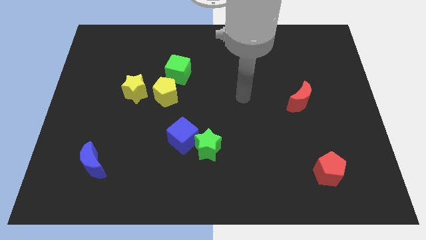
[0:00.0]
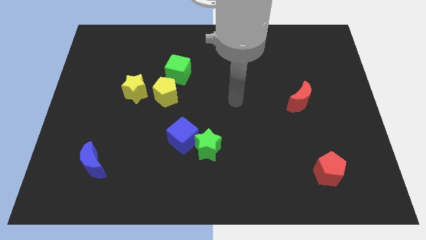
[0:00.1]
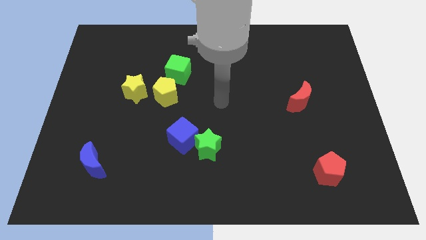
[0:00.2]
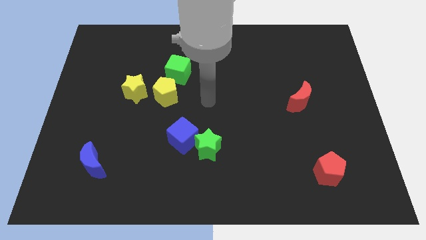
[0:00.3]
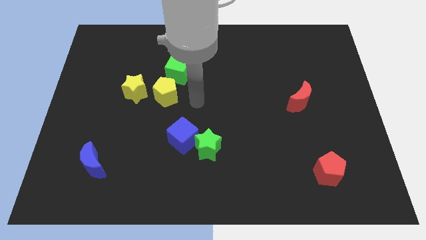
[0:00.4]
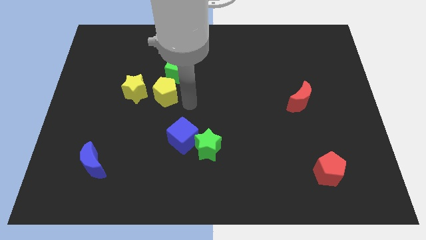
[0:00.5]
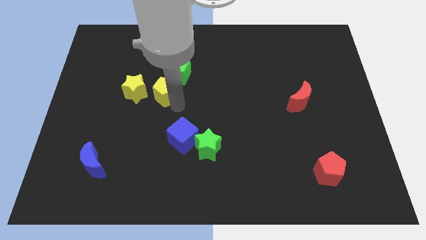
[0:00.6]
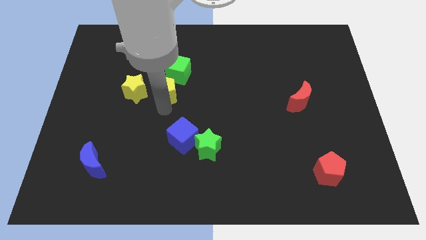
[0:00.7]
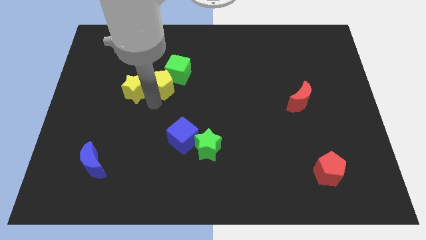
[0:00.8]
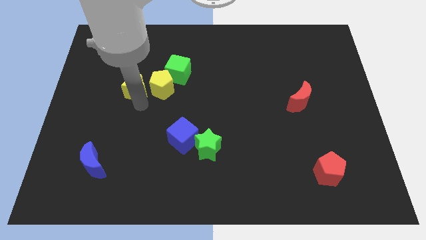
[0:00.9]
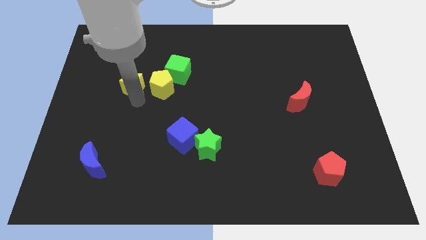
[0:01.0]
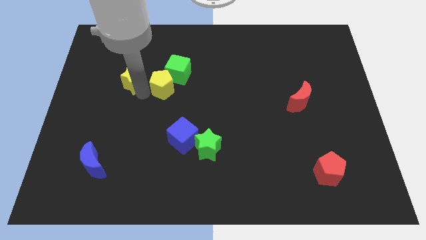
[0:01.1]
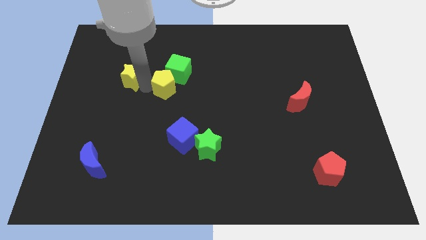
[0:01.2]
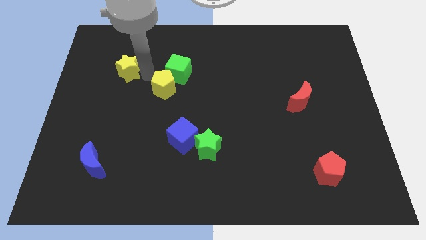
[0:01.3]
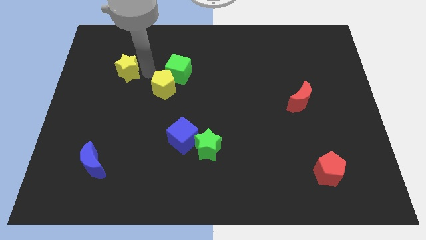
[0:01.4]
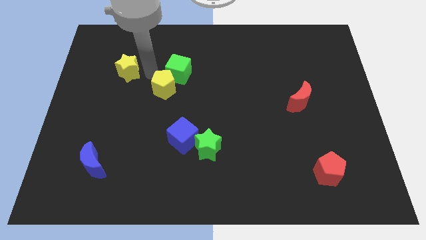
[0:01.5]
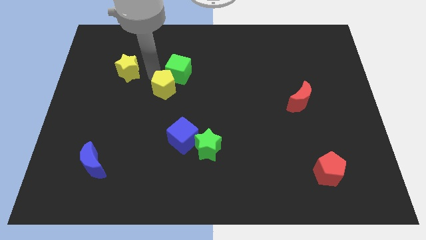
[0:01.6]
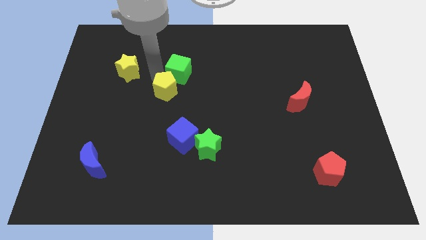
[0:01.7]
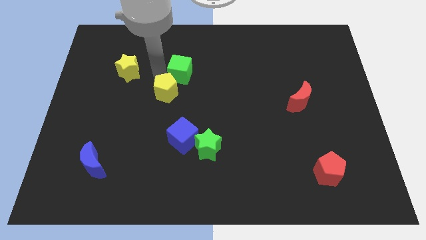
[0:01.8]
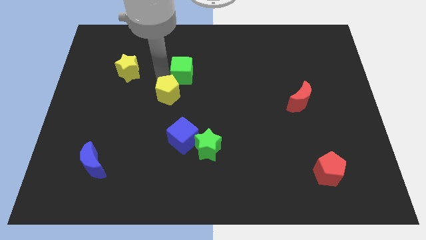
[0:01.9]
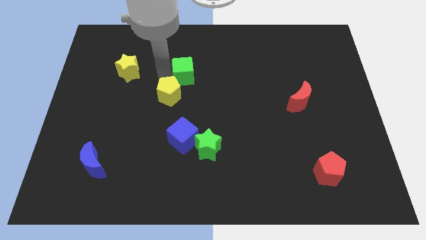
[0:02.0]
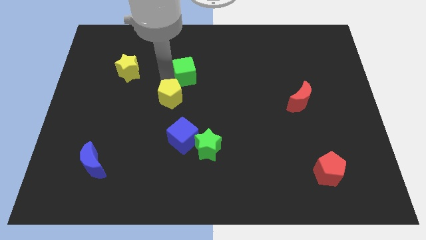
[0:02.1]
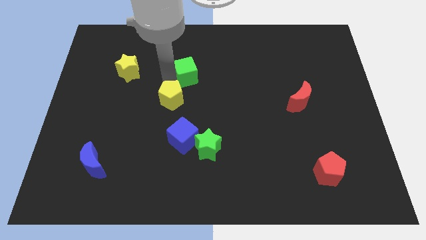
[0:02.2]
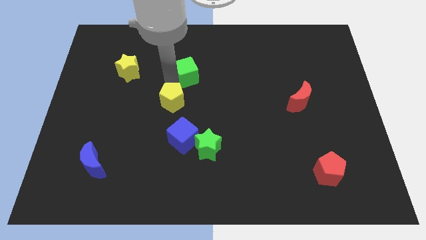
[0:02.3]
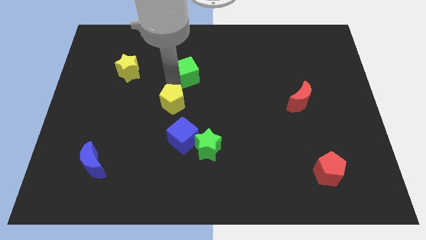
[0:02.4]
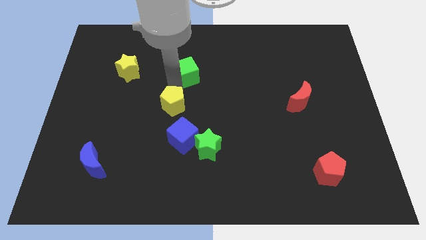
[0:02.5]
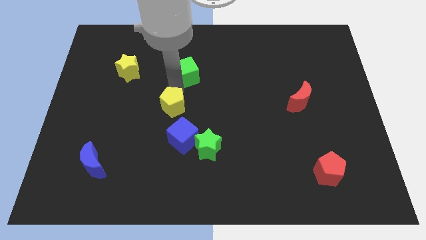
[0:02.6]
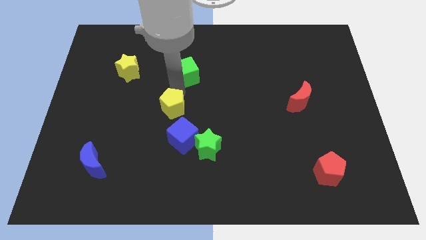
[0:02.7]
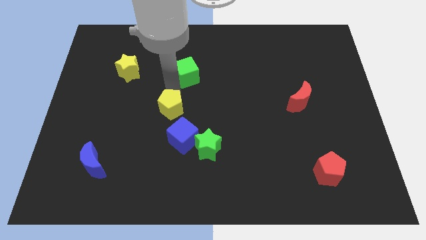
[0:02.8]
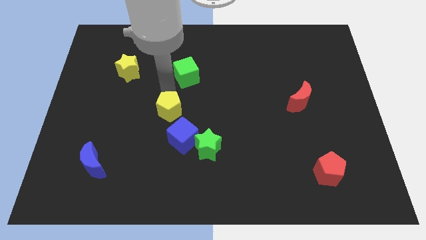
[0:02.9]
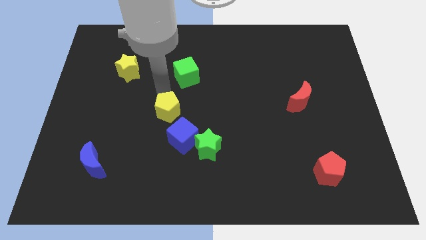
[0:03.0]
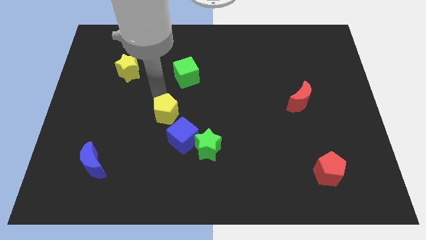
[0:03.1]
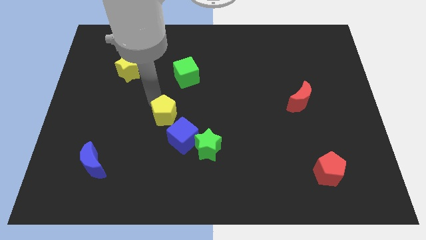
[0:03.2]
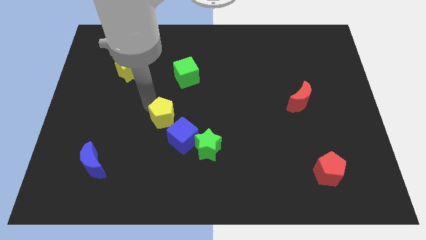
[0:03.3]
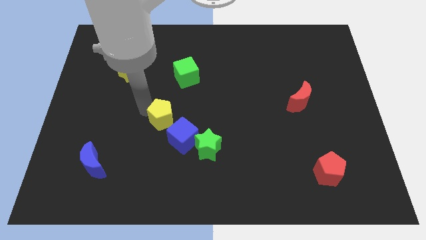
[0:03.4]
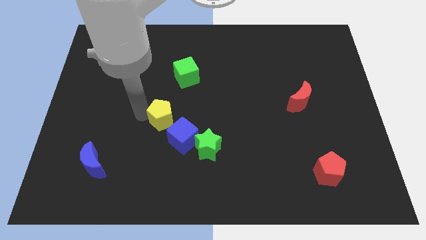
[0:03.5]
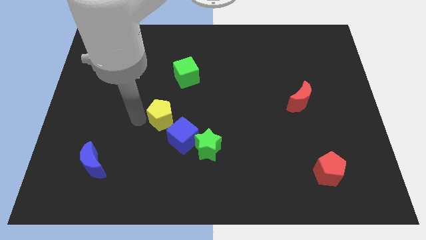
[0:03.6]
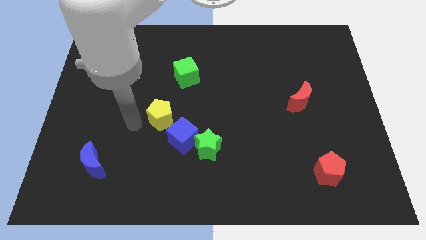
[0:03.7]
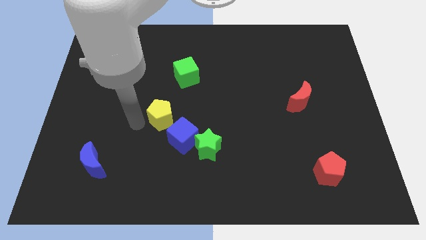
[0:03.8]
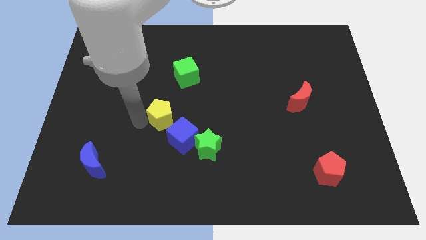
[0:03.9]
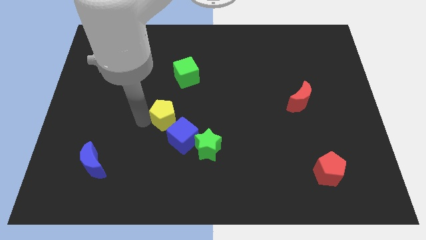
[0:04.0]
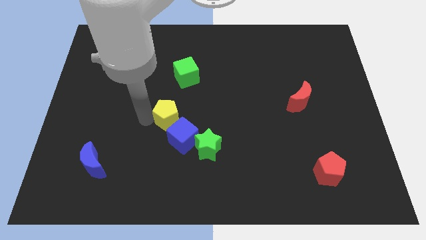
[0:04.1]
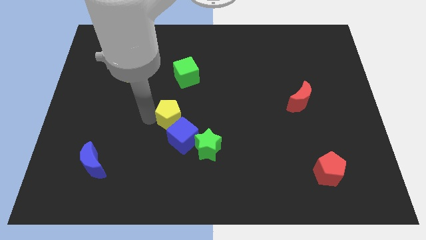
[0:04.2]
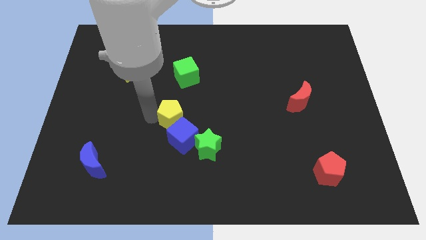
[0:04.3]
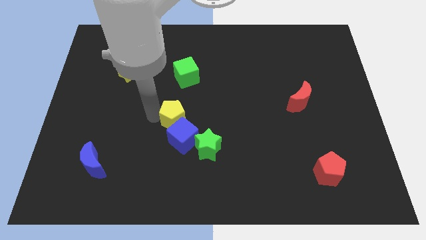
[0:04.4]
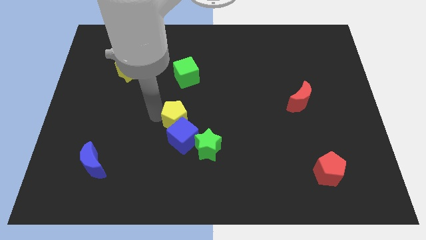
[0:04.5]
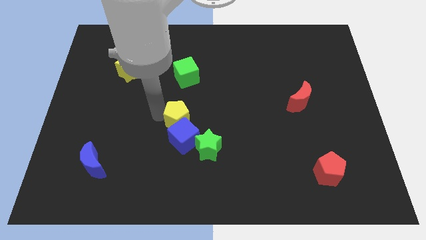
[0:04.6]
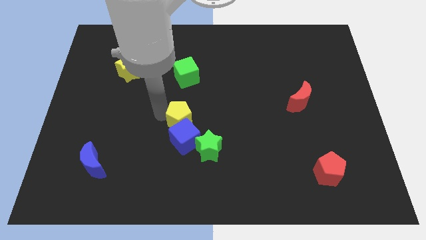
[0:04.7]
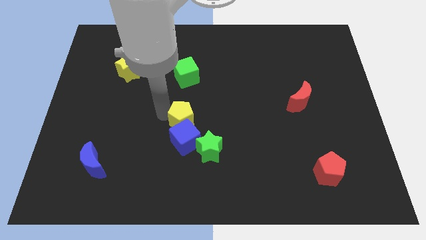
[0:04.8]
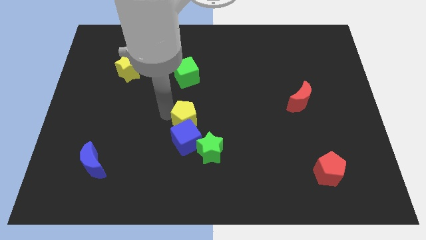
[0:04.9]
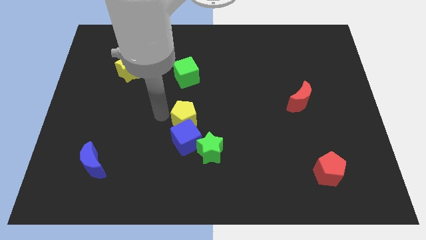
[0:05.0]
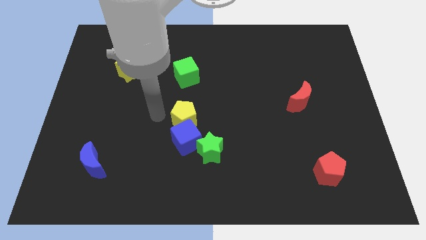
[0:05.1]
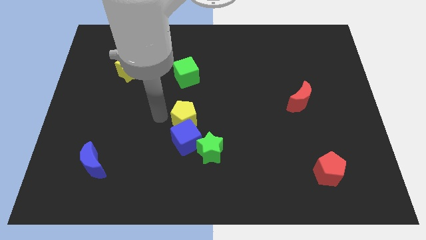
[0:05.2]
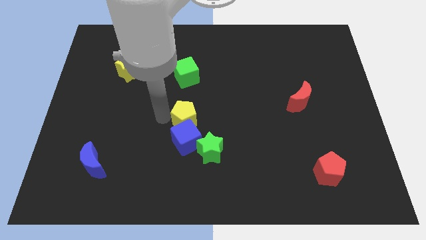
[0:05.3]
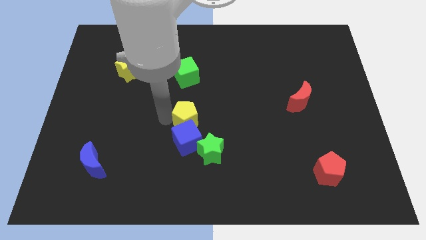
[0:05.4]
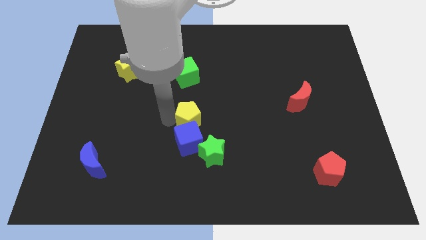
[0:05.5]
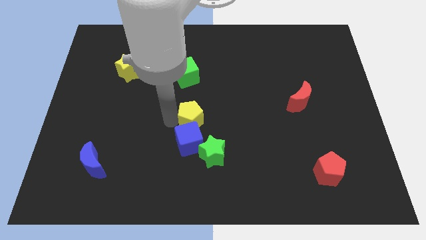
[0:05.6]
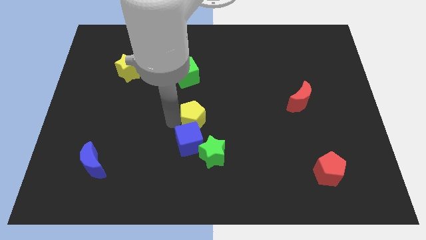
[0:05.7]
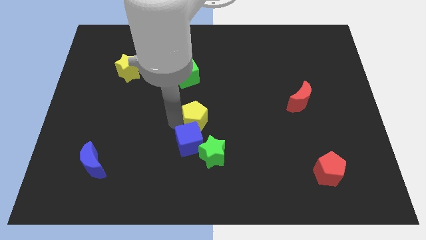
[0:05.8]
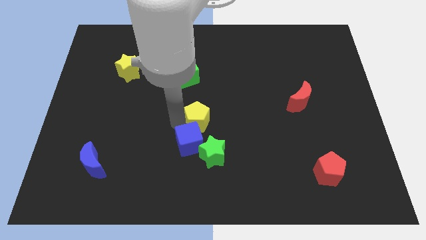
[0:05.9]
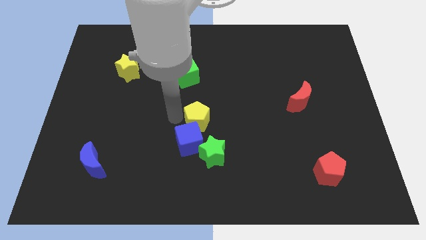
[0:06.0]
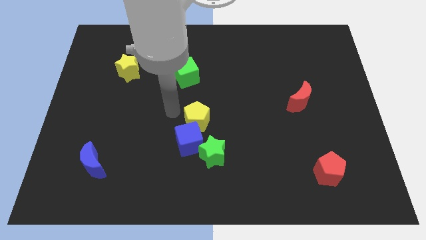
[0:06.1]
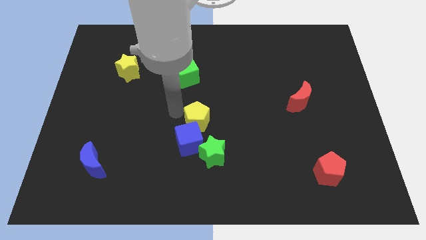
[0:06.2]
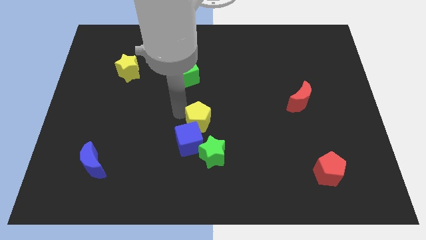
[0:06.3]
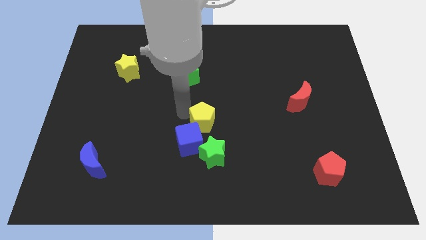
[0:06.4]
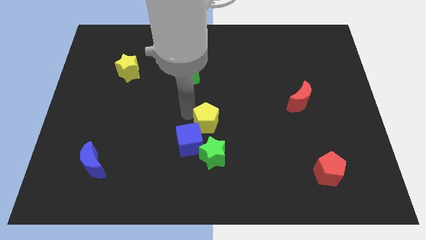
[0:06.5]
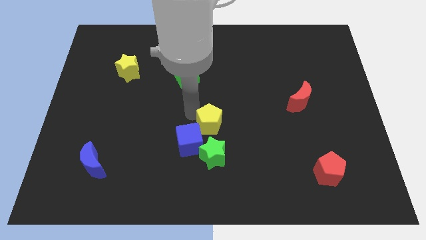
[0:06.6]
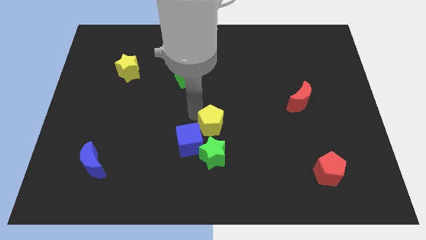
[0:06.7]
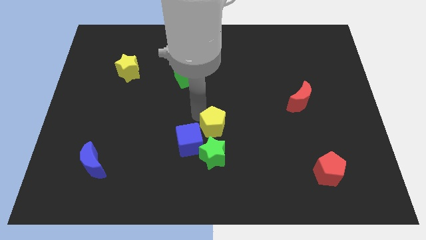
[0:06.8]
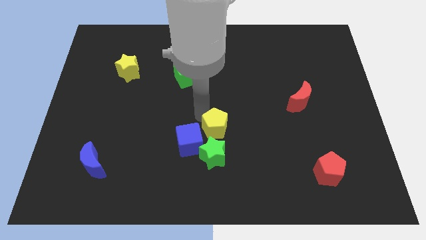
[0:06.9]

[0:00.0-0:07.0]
slide the yellow pentagon to the top right of the green star

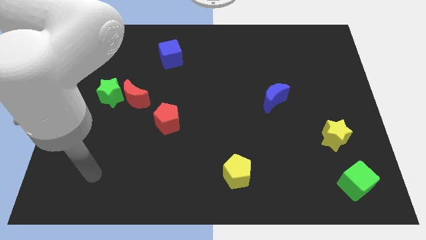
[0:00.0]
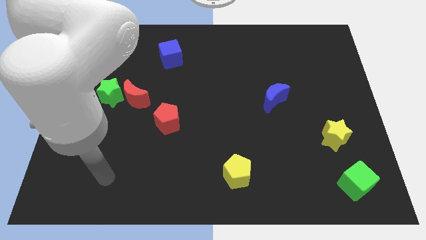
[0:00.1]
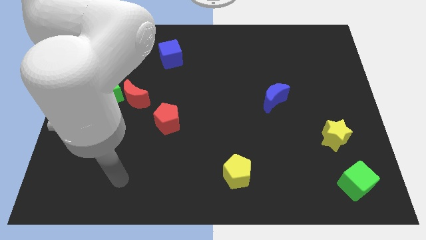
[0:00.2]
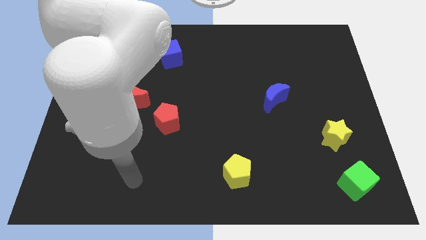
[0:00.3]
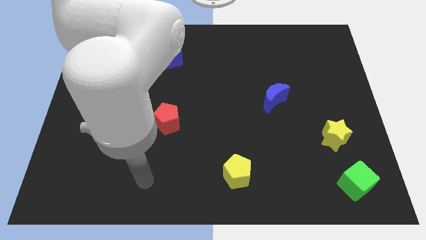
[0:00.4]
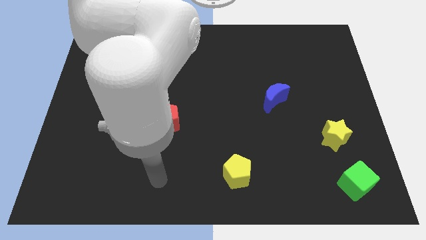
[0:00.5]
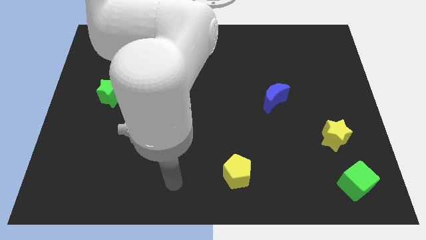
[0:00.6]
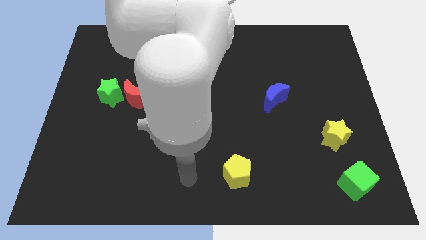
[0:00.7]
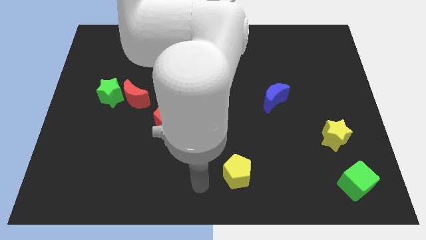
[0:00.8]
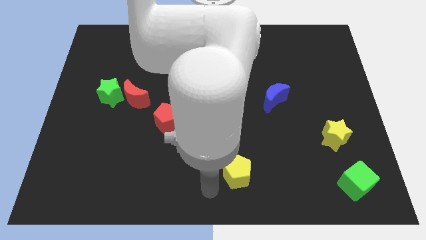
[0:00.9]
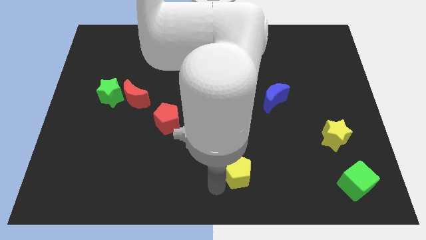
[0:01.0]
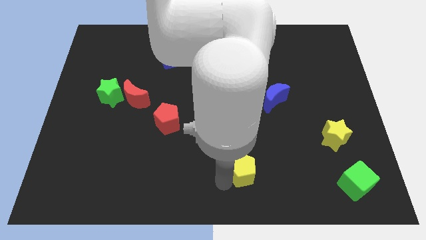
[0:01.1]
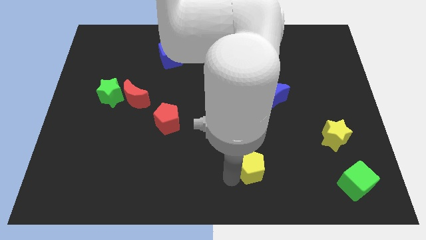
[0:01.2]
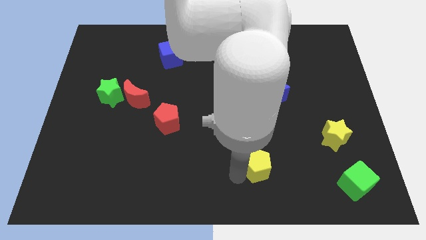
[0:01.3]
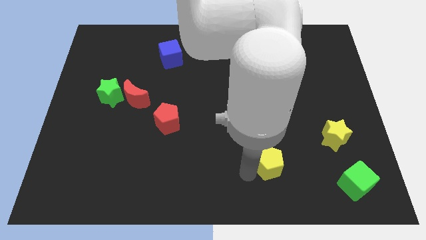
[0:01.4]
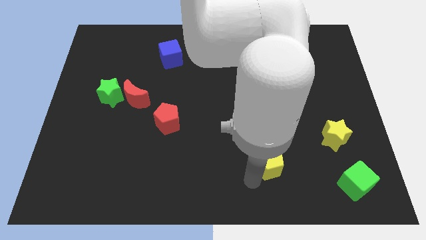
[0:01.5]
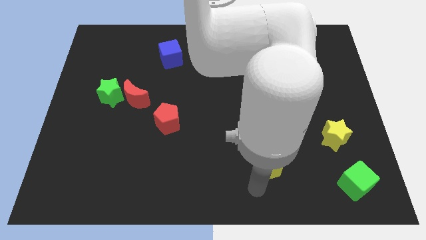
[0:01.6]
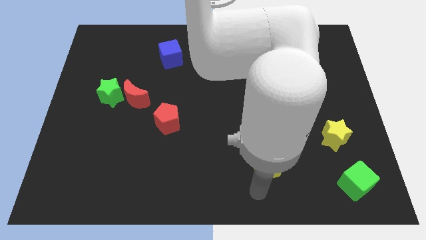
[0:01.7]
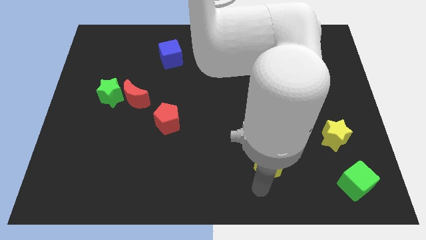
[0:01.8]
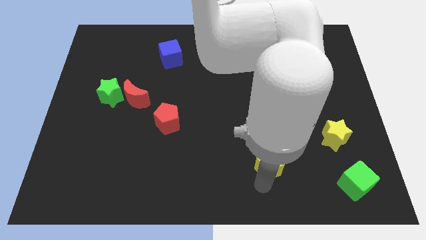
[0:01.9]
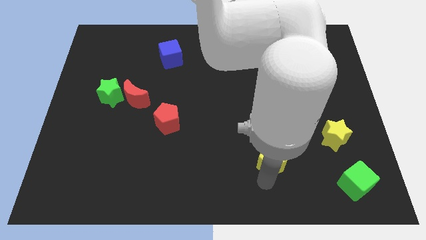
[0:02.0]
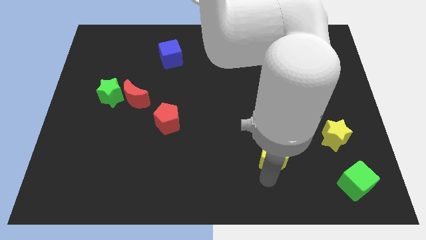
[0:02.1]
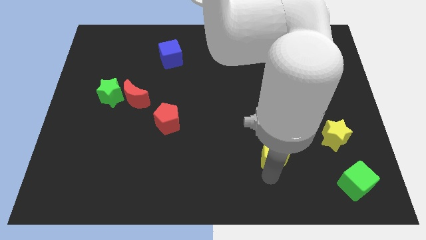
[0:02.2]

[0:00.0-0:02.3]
move the yellow pentagon to the bottom side of the blue moon
